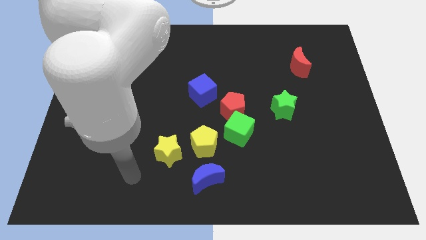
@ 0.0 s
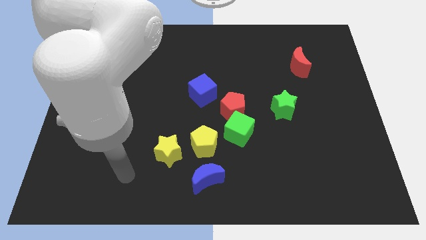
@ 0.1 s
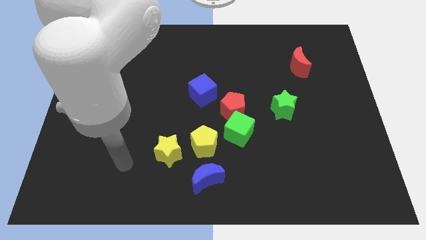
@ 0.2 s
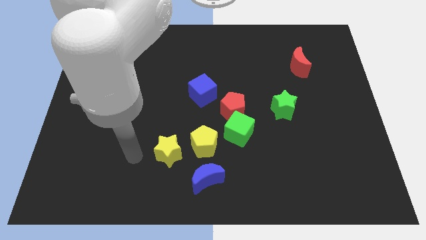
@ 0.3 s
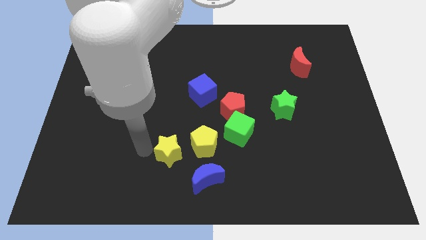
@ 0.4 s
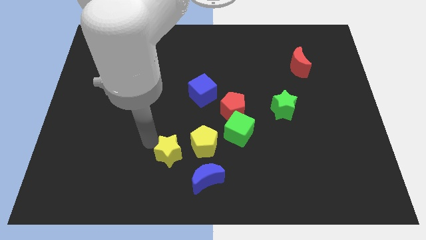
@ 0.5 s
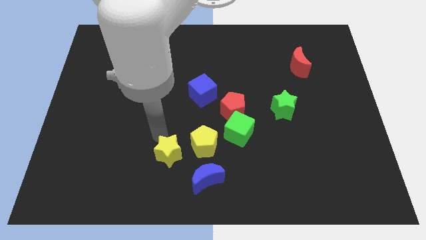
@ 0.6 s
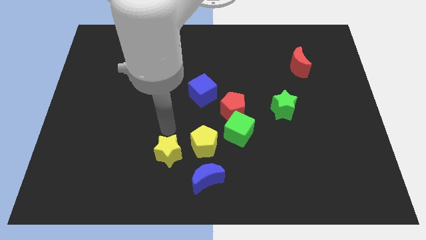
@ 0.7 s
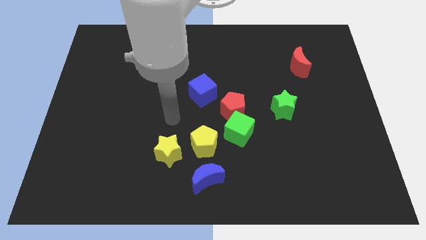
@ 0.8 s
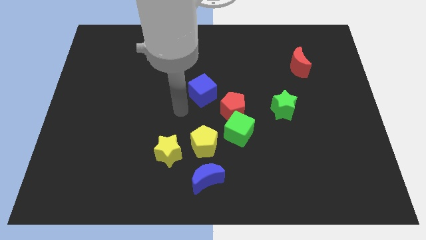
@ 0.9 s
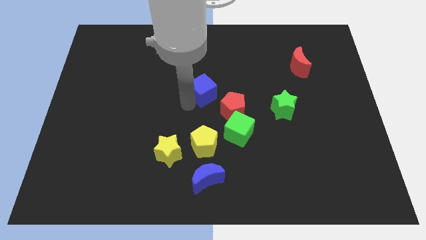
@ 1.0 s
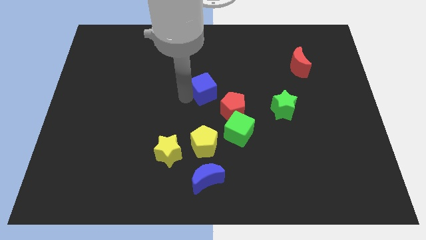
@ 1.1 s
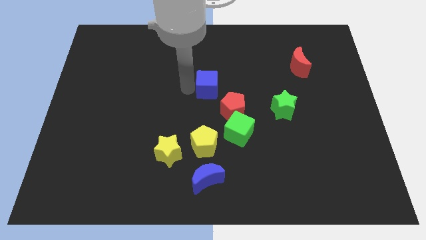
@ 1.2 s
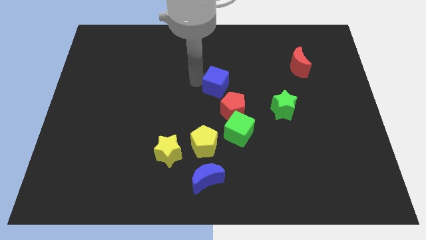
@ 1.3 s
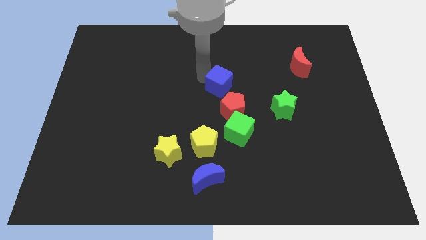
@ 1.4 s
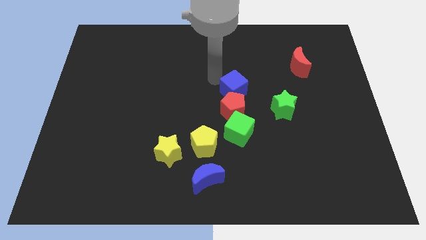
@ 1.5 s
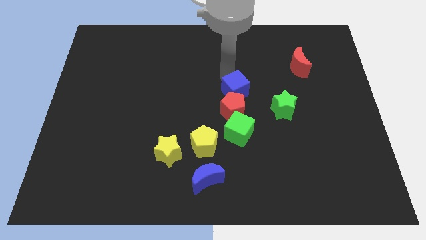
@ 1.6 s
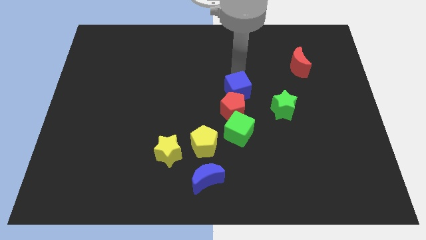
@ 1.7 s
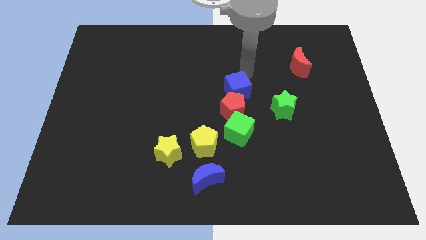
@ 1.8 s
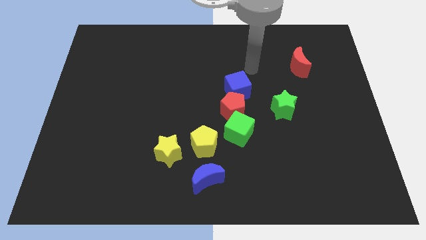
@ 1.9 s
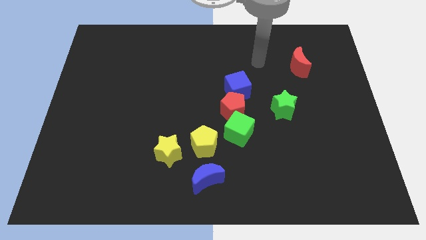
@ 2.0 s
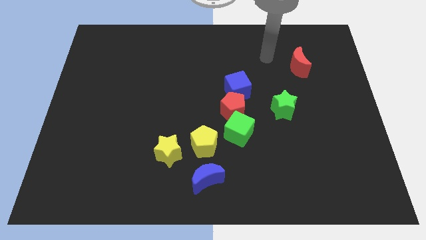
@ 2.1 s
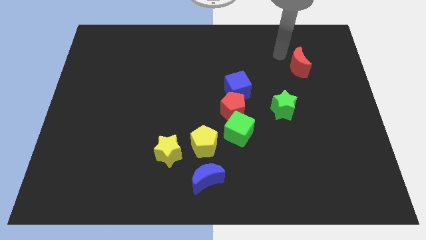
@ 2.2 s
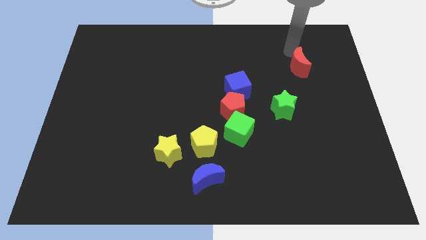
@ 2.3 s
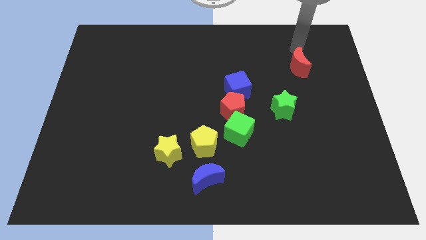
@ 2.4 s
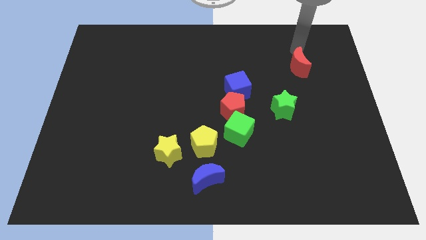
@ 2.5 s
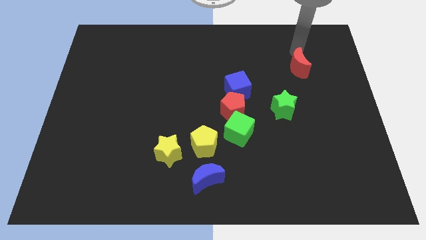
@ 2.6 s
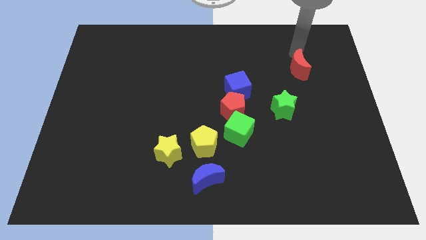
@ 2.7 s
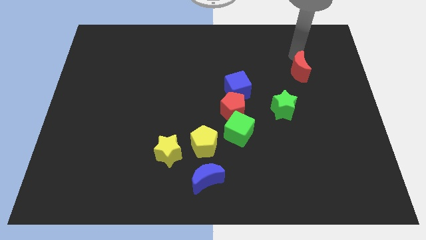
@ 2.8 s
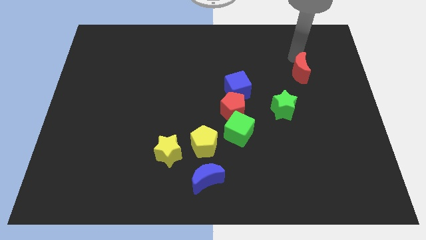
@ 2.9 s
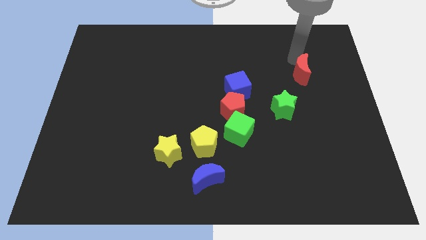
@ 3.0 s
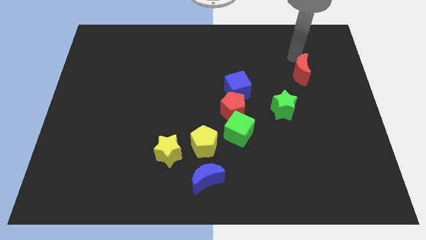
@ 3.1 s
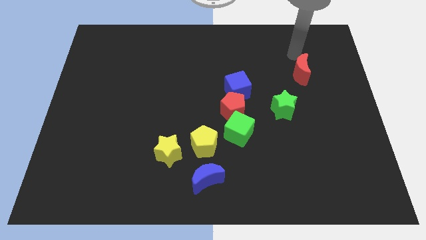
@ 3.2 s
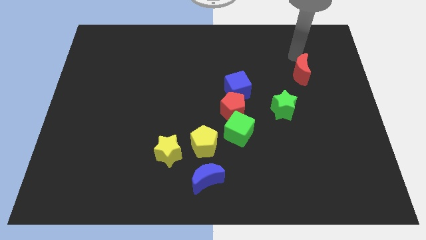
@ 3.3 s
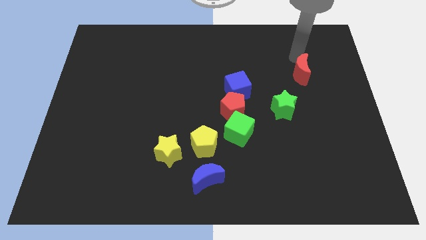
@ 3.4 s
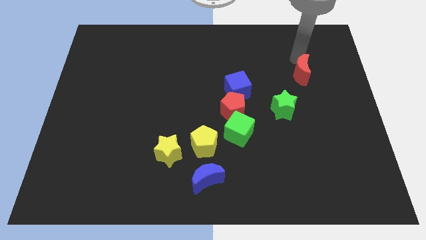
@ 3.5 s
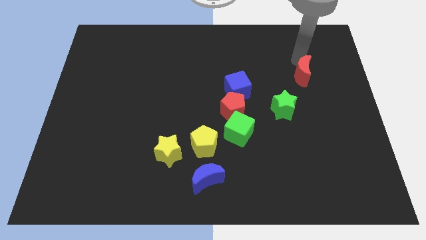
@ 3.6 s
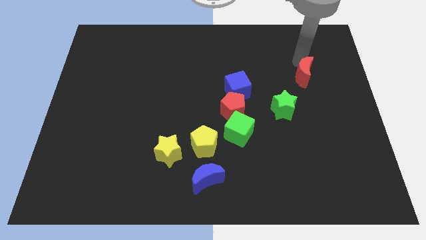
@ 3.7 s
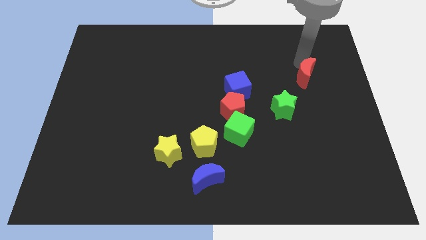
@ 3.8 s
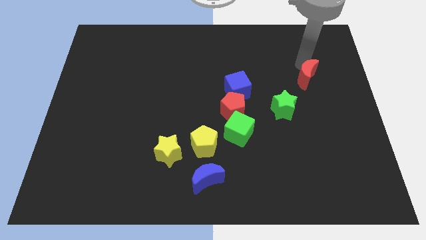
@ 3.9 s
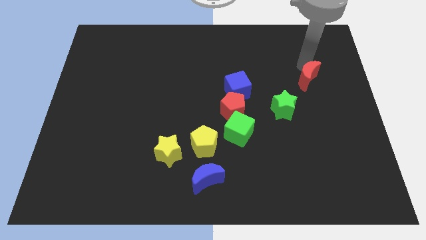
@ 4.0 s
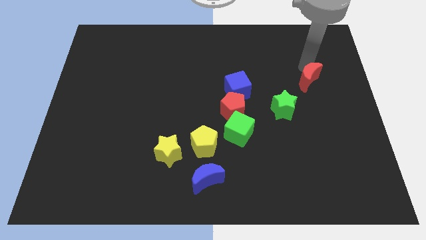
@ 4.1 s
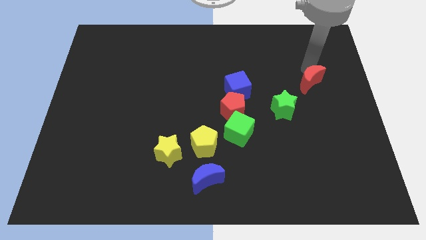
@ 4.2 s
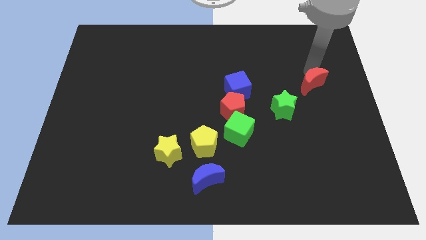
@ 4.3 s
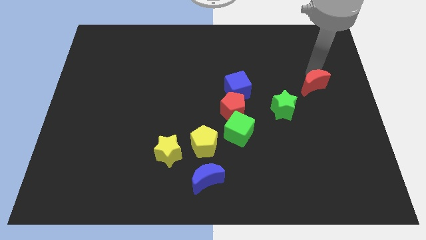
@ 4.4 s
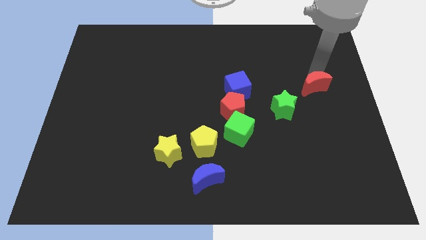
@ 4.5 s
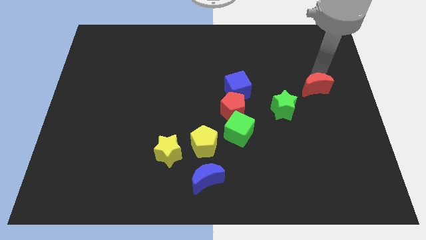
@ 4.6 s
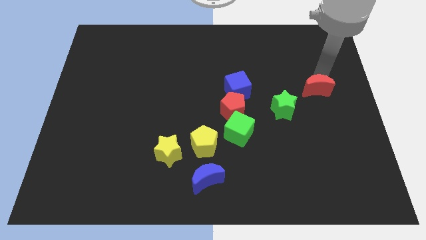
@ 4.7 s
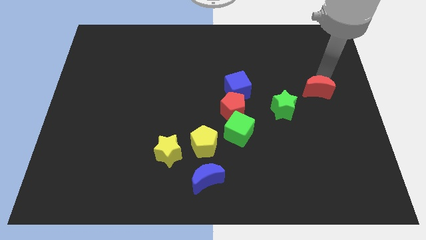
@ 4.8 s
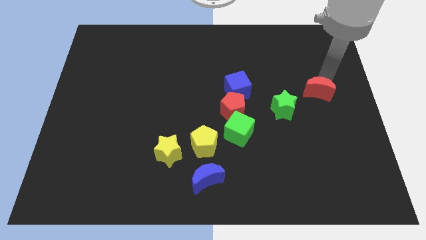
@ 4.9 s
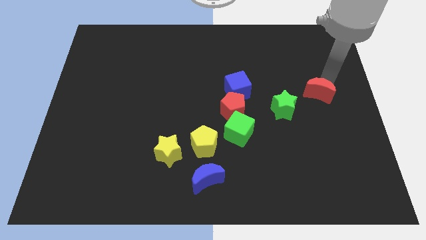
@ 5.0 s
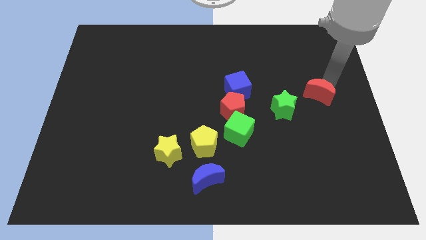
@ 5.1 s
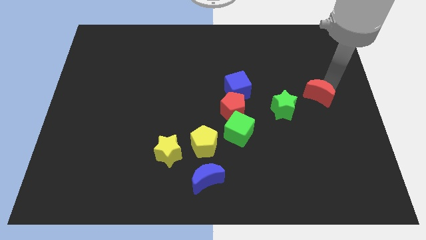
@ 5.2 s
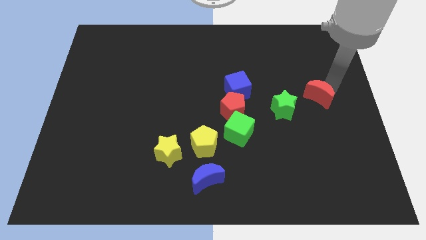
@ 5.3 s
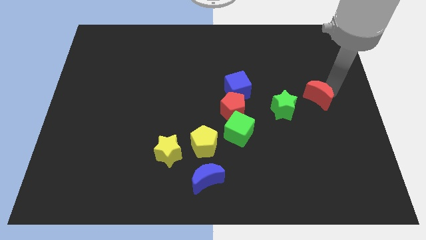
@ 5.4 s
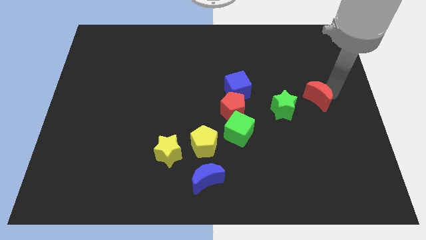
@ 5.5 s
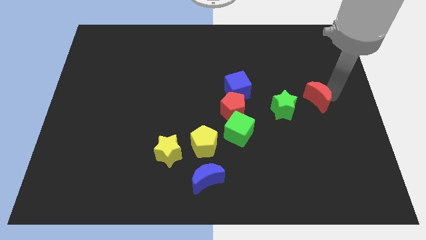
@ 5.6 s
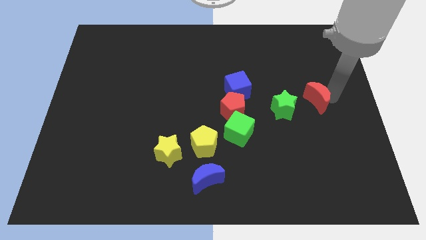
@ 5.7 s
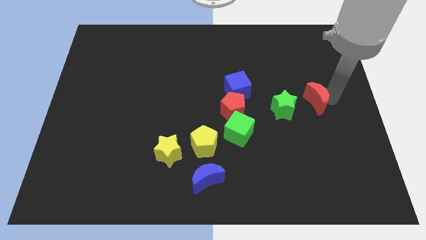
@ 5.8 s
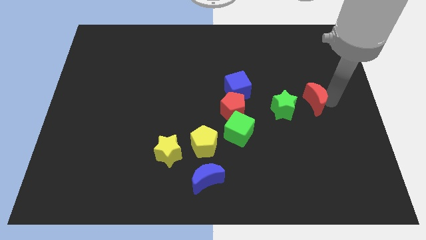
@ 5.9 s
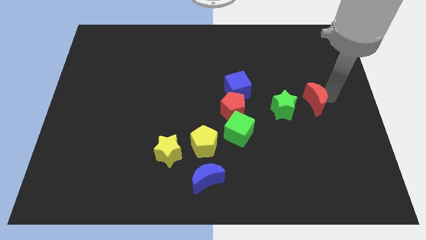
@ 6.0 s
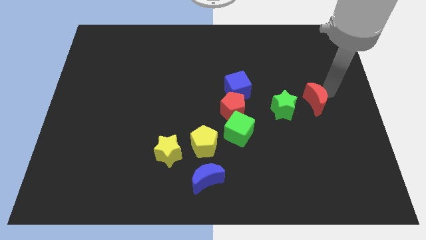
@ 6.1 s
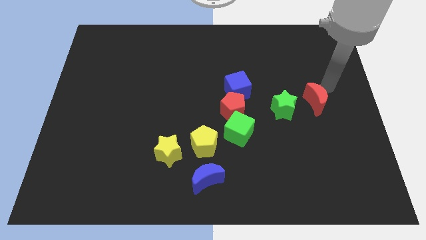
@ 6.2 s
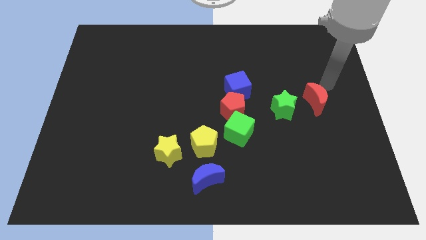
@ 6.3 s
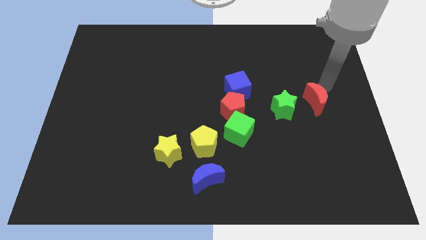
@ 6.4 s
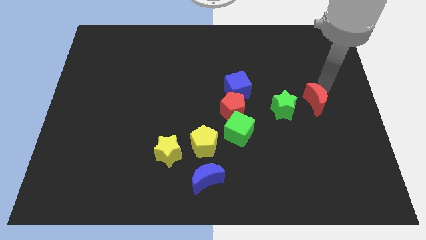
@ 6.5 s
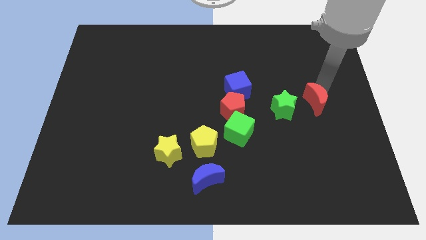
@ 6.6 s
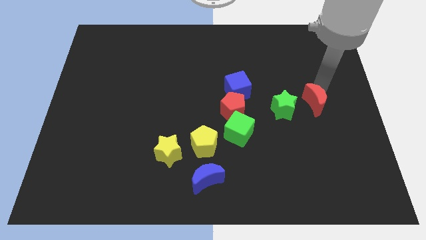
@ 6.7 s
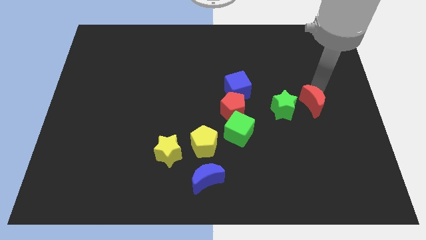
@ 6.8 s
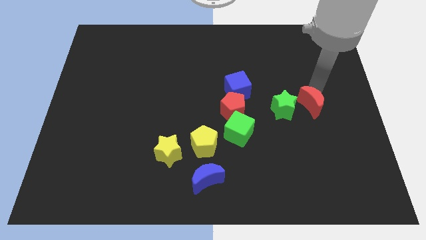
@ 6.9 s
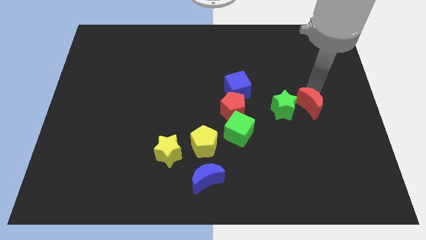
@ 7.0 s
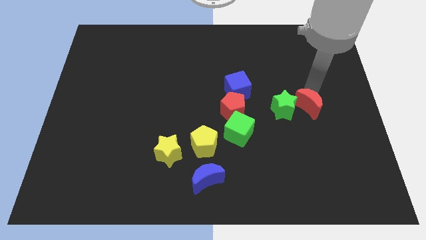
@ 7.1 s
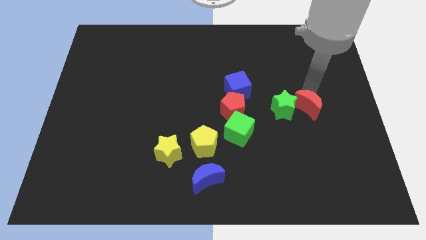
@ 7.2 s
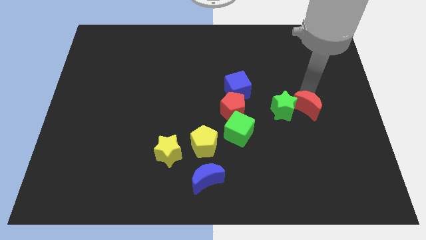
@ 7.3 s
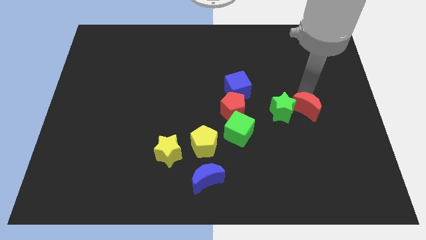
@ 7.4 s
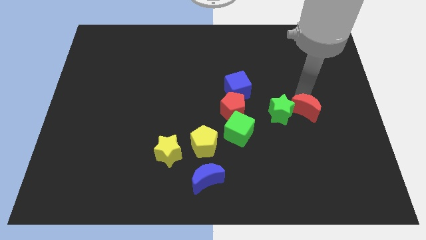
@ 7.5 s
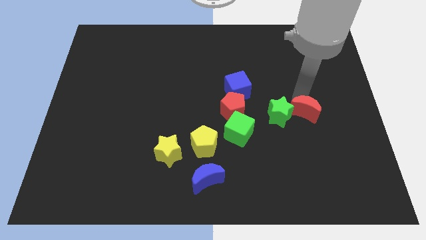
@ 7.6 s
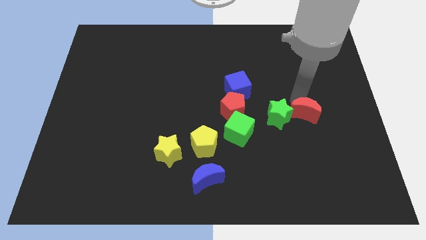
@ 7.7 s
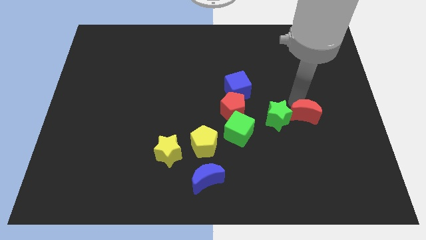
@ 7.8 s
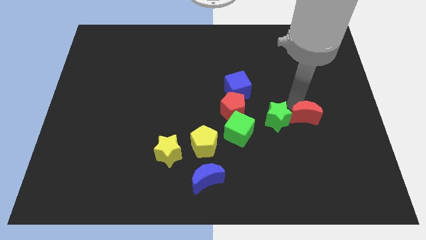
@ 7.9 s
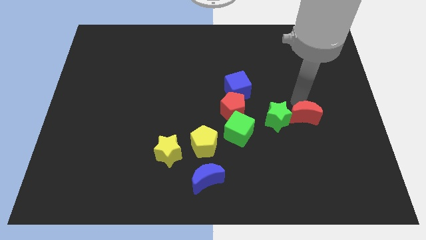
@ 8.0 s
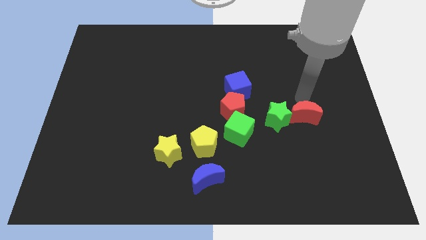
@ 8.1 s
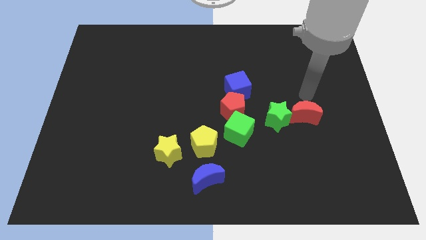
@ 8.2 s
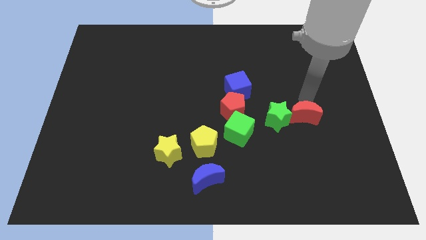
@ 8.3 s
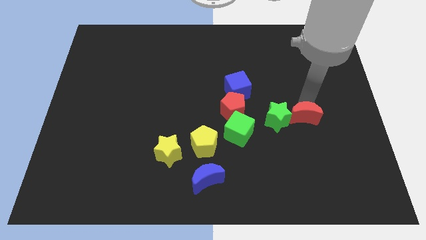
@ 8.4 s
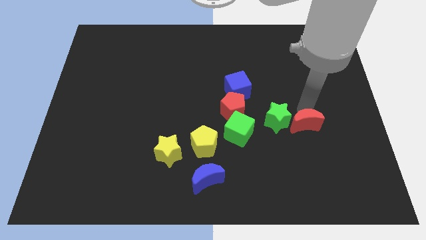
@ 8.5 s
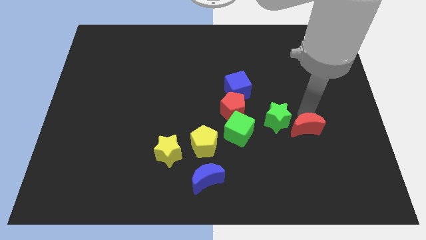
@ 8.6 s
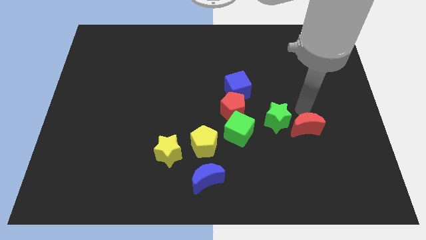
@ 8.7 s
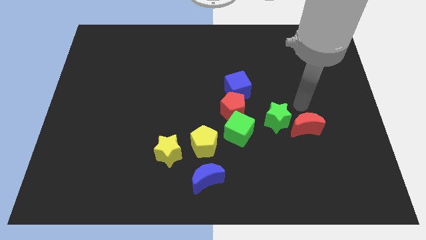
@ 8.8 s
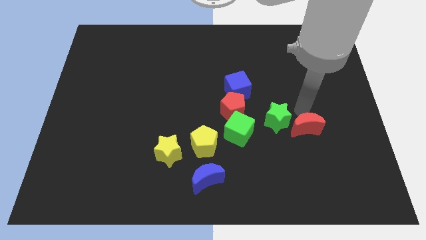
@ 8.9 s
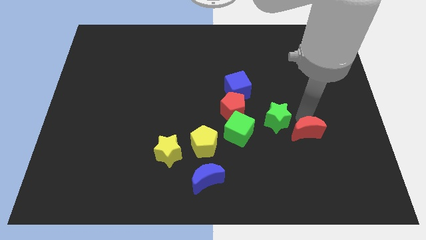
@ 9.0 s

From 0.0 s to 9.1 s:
push the red moon downwards
